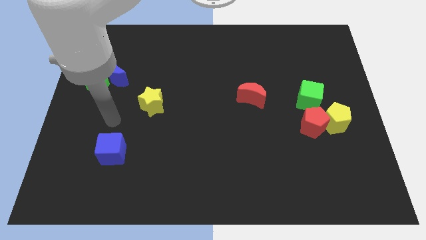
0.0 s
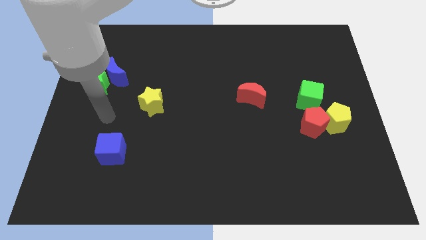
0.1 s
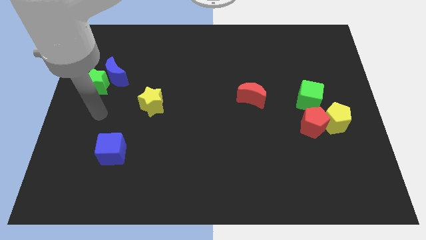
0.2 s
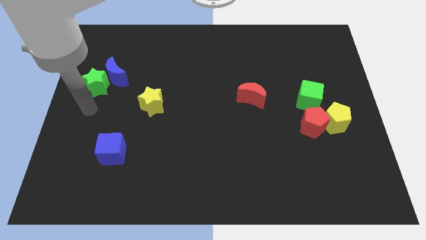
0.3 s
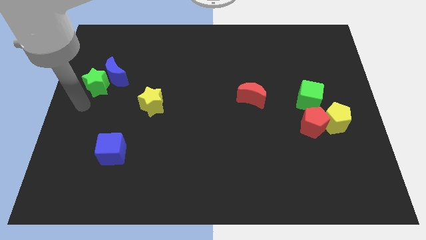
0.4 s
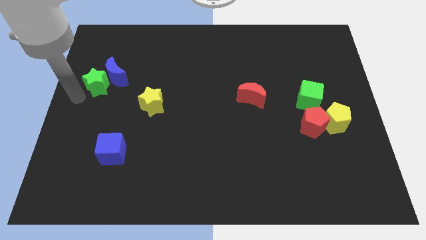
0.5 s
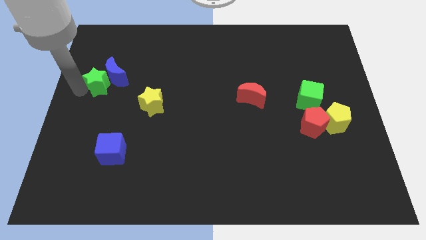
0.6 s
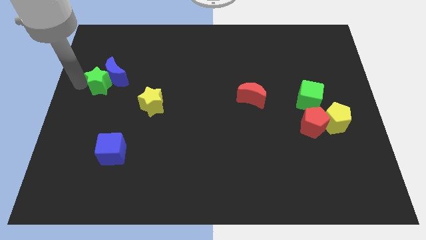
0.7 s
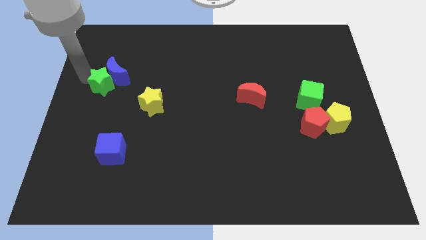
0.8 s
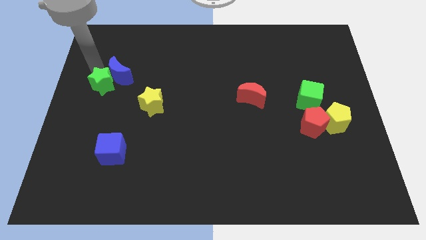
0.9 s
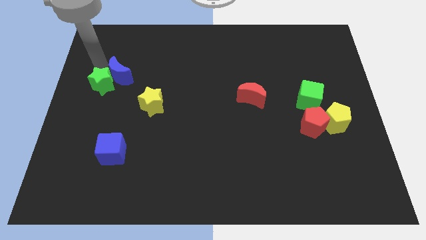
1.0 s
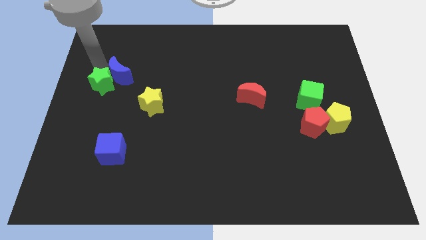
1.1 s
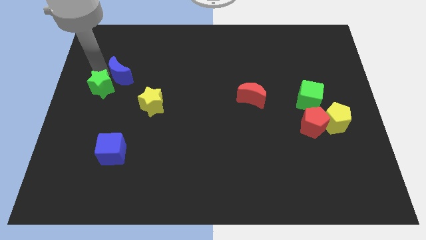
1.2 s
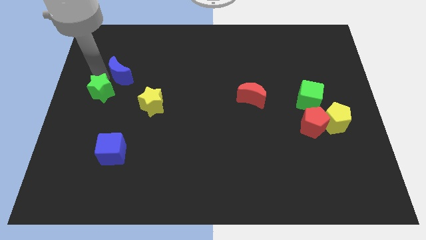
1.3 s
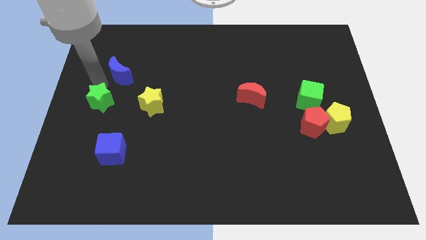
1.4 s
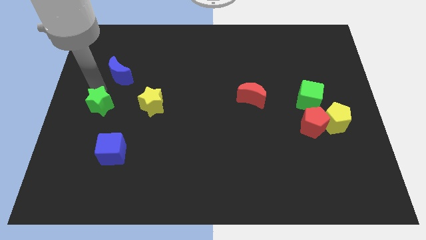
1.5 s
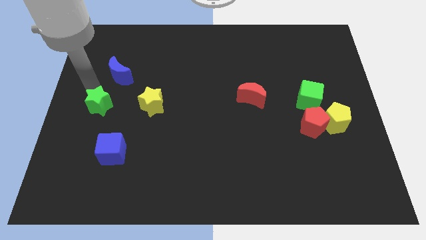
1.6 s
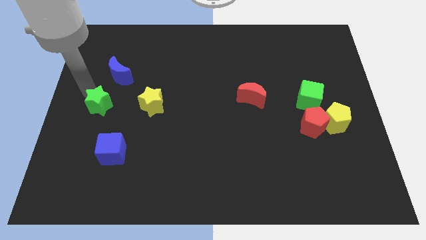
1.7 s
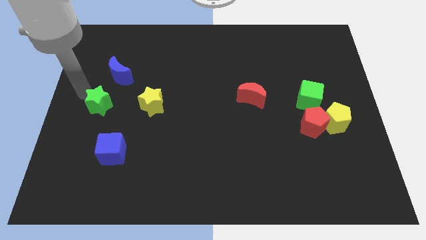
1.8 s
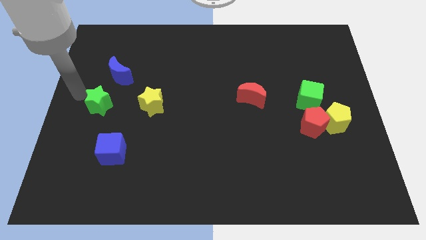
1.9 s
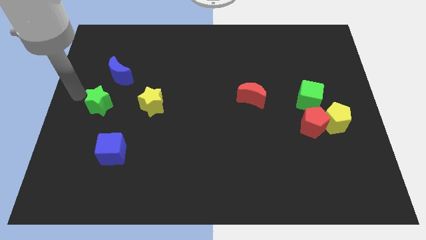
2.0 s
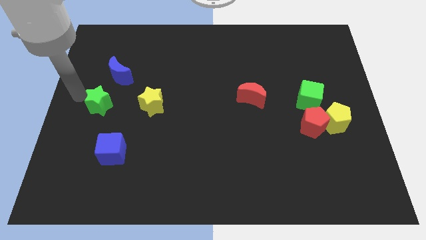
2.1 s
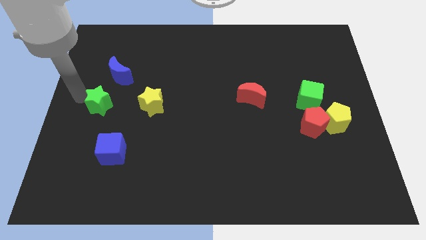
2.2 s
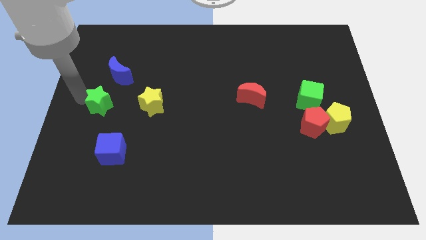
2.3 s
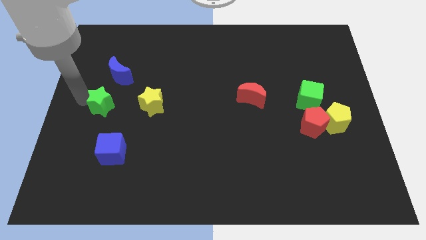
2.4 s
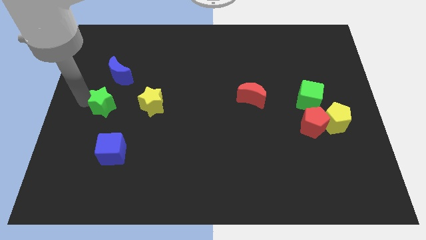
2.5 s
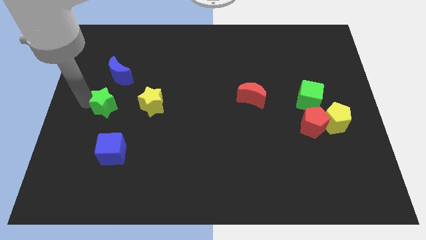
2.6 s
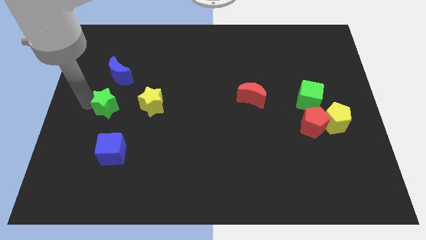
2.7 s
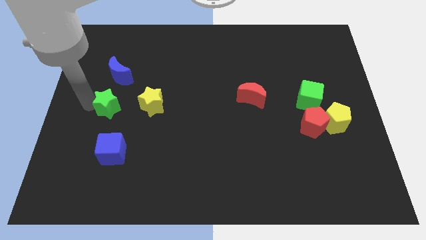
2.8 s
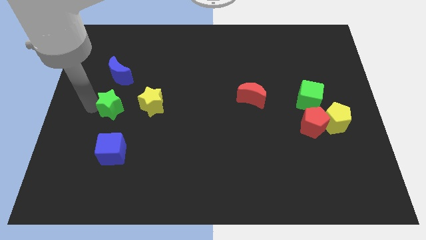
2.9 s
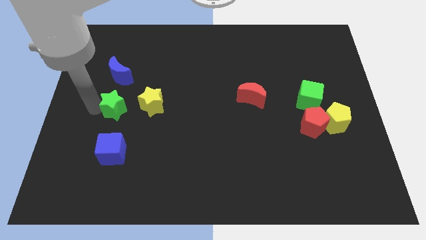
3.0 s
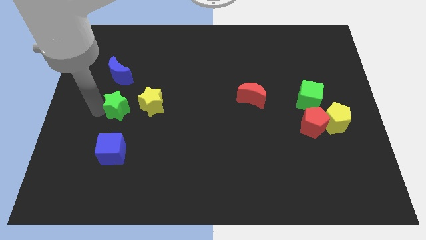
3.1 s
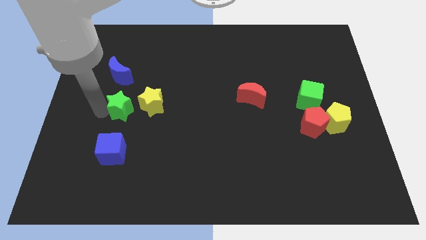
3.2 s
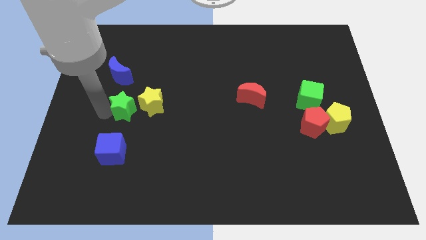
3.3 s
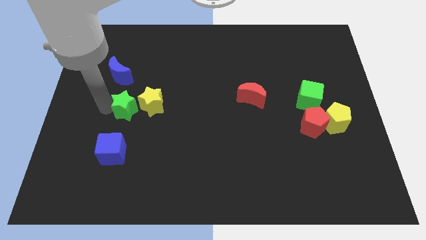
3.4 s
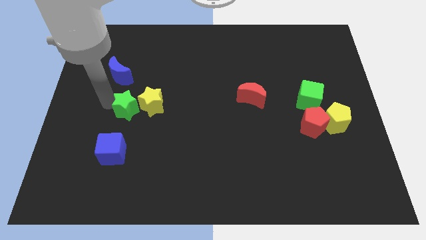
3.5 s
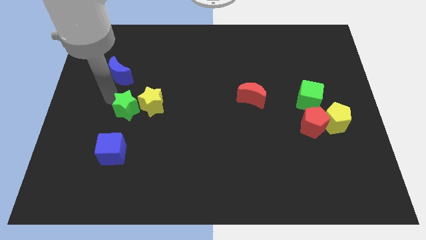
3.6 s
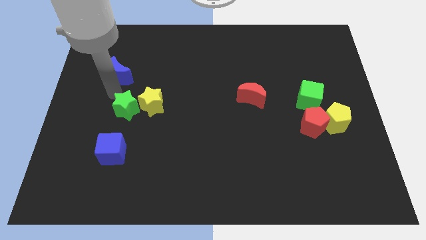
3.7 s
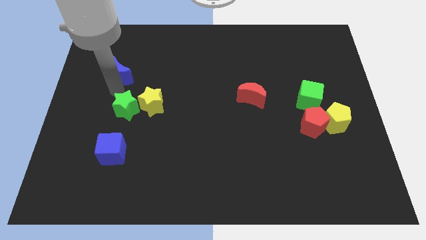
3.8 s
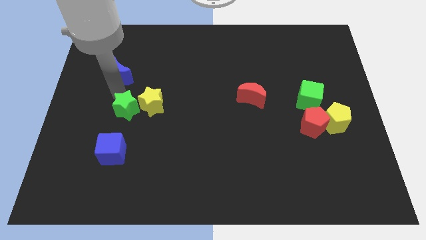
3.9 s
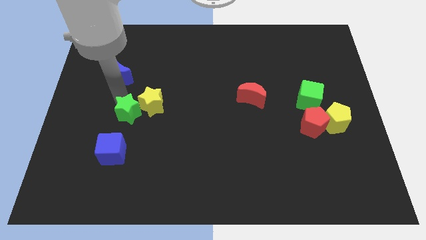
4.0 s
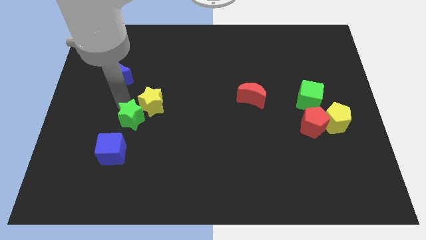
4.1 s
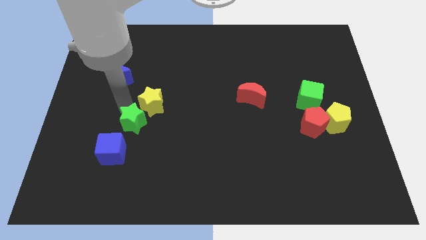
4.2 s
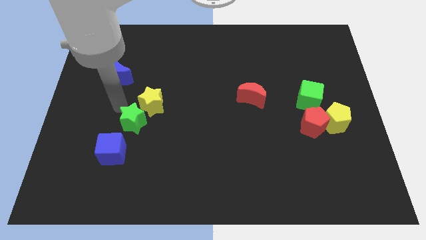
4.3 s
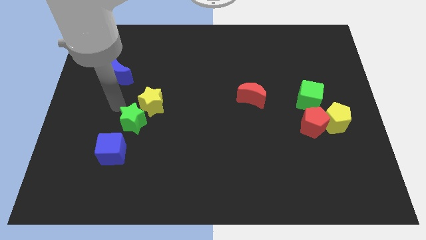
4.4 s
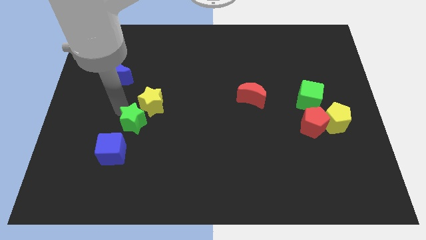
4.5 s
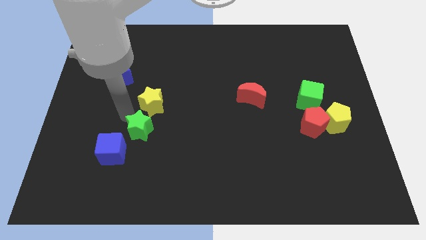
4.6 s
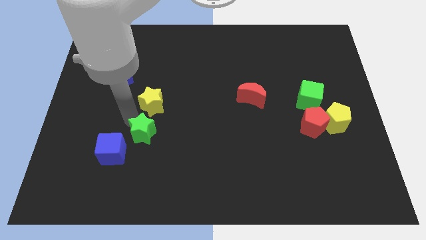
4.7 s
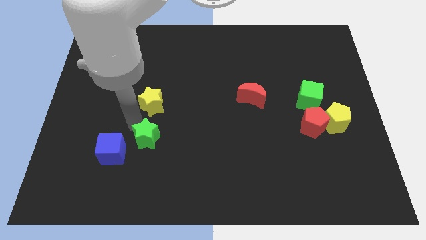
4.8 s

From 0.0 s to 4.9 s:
move the green star diagonally down and to the right

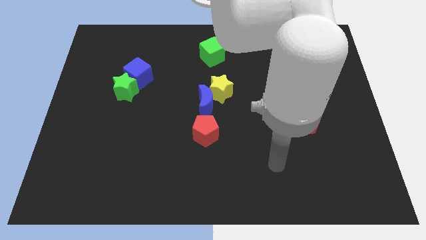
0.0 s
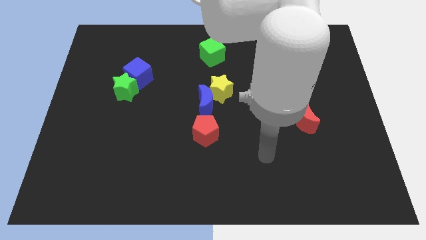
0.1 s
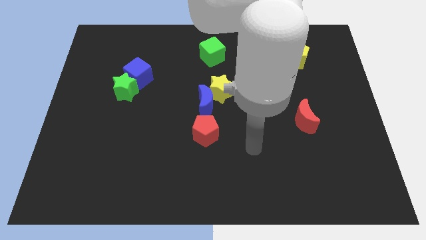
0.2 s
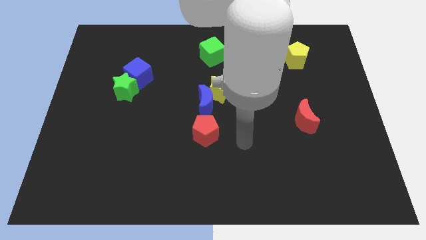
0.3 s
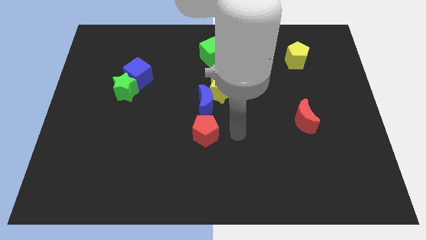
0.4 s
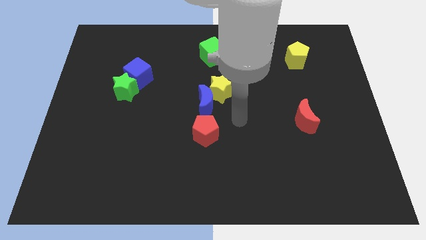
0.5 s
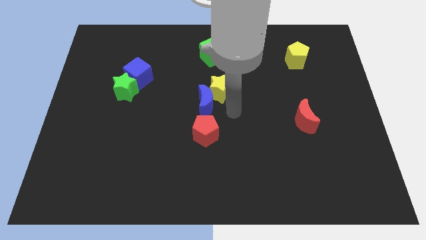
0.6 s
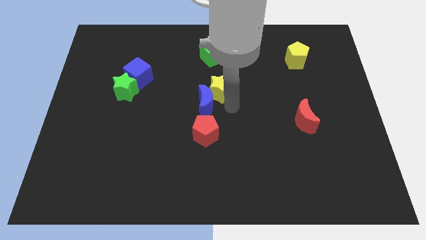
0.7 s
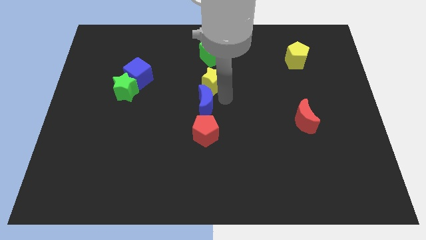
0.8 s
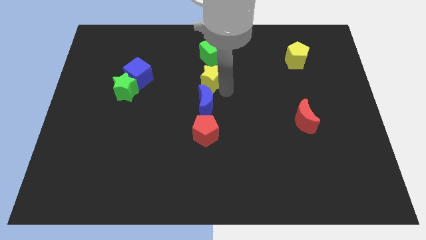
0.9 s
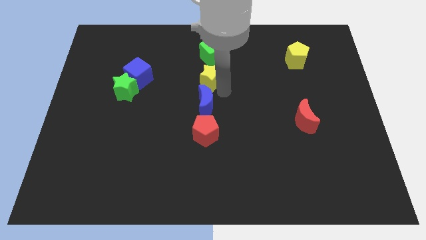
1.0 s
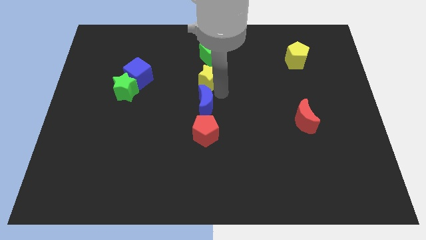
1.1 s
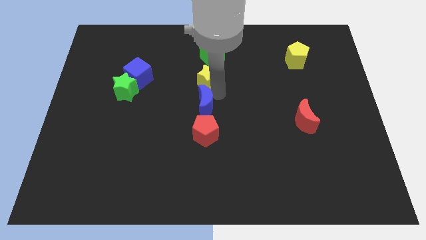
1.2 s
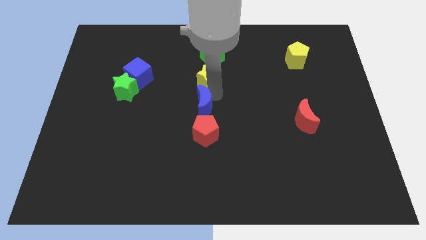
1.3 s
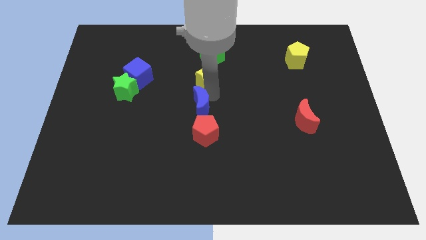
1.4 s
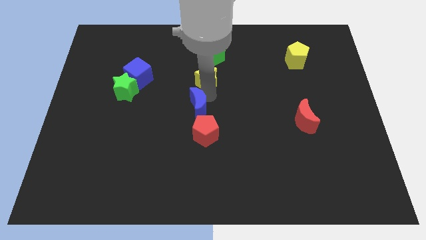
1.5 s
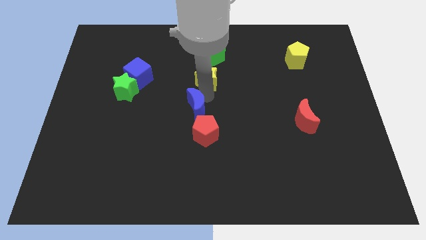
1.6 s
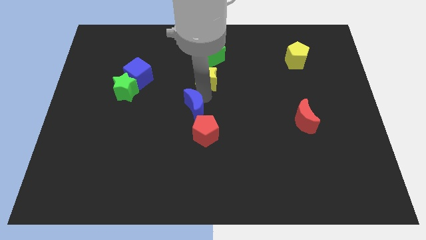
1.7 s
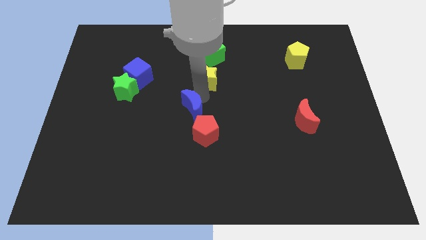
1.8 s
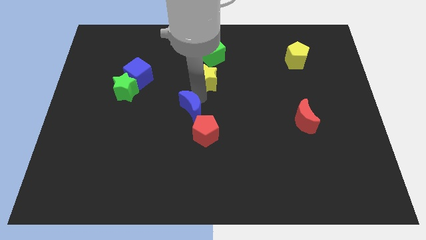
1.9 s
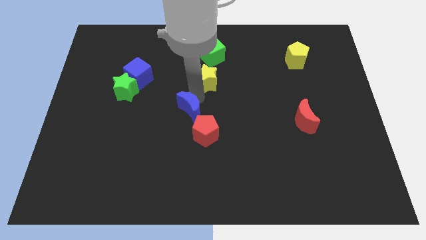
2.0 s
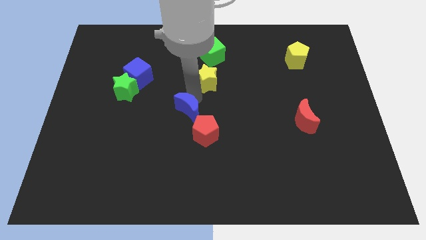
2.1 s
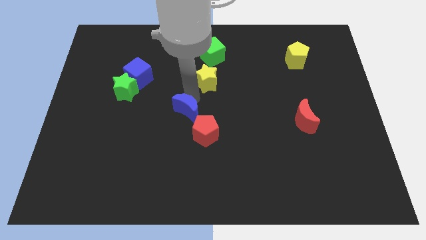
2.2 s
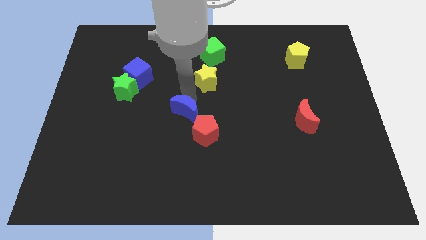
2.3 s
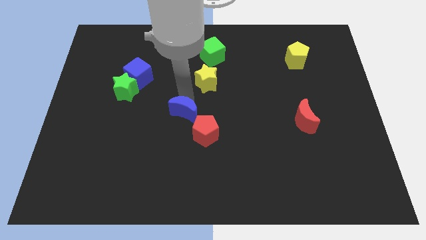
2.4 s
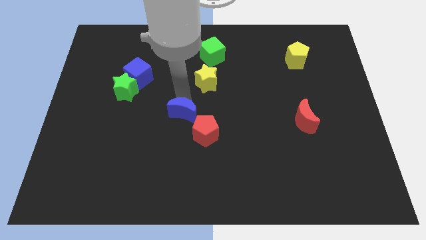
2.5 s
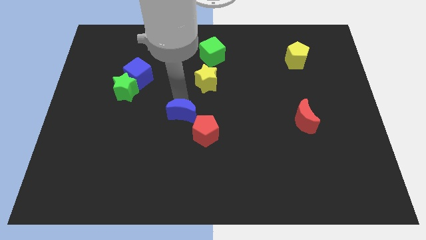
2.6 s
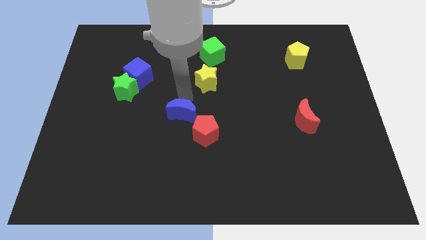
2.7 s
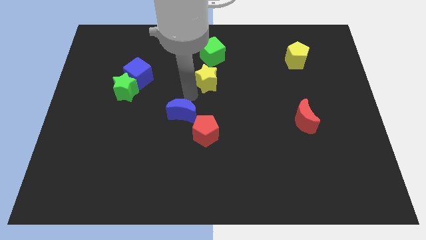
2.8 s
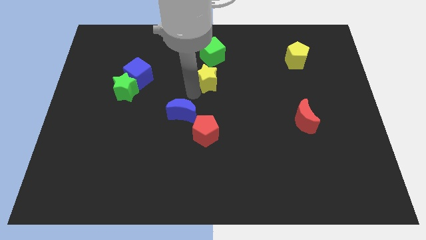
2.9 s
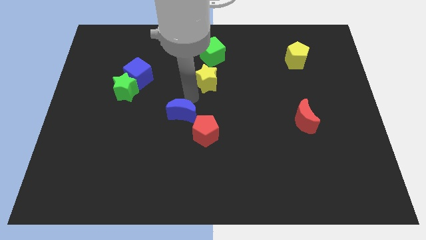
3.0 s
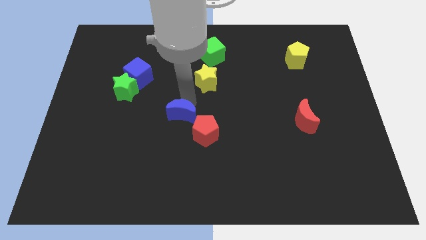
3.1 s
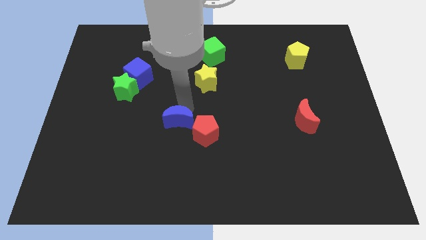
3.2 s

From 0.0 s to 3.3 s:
move the blue moon slightly diagonally downwards and to the left
